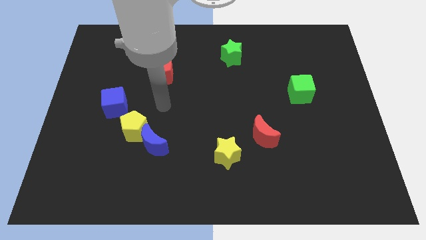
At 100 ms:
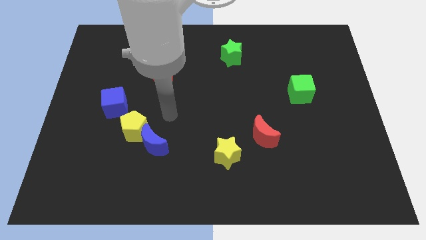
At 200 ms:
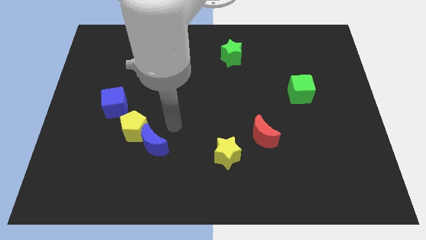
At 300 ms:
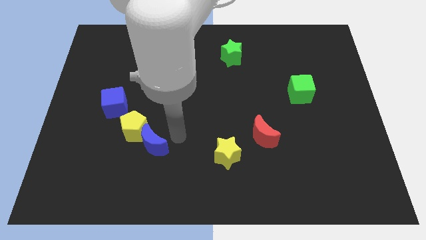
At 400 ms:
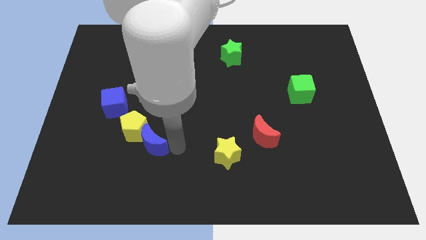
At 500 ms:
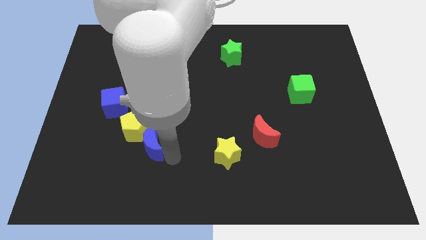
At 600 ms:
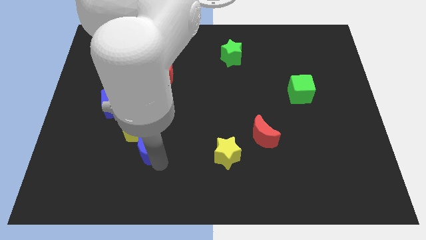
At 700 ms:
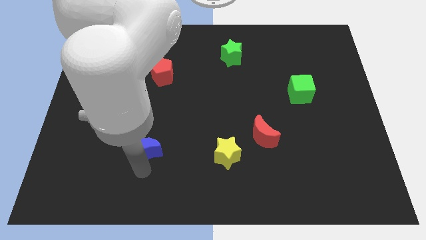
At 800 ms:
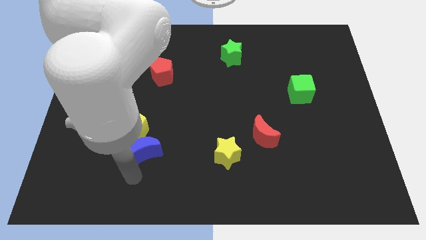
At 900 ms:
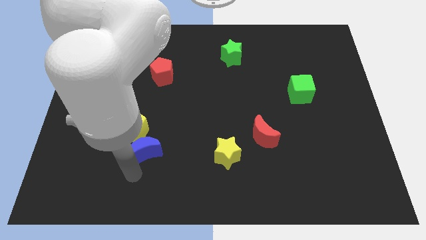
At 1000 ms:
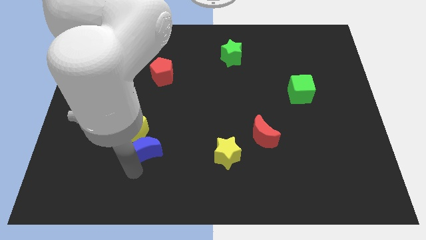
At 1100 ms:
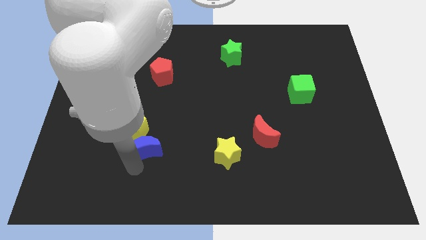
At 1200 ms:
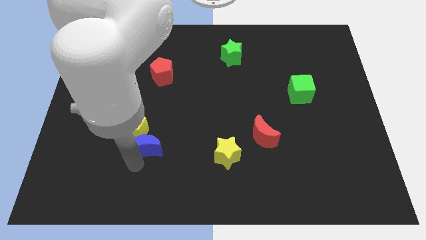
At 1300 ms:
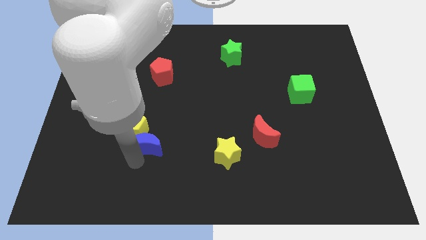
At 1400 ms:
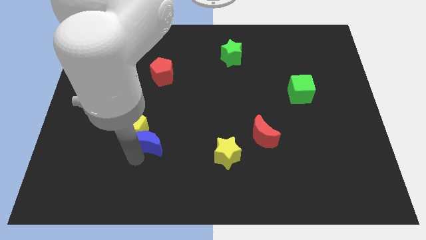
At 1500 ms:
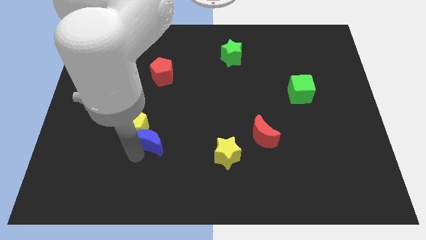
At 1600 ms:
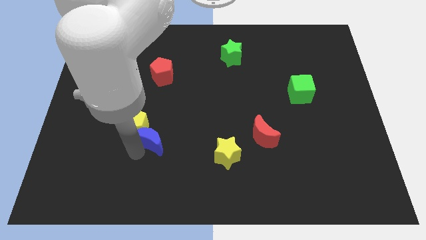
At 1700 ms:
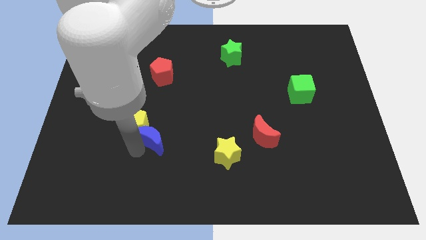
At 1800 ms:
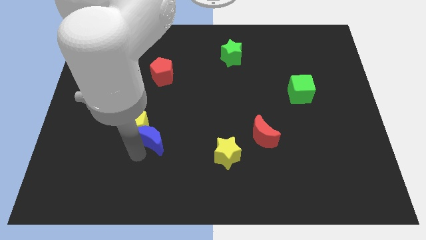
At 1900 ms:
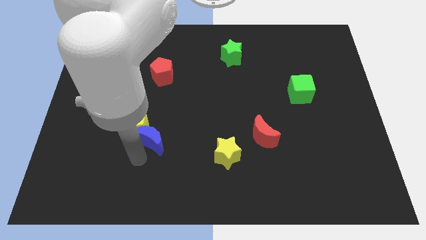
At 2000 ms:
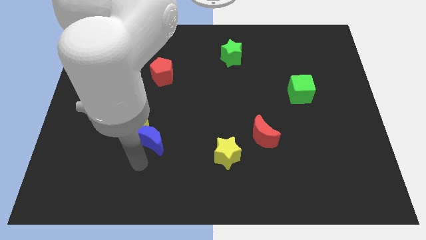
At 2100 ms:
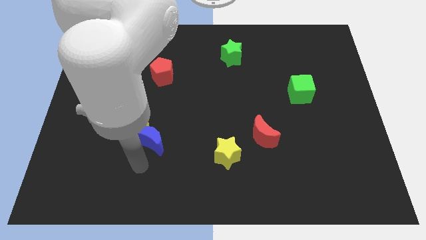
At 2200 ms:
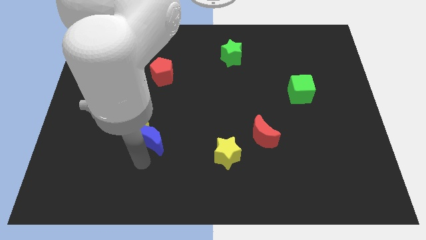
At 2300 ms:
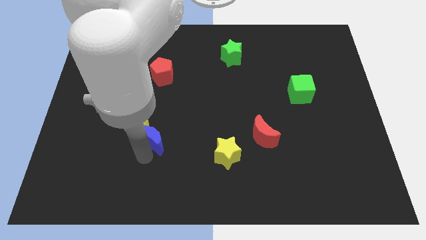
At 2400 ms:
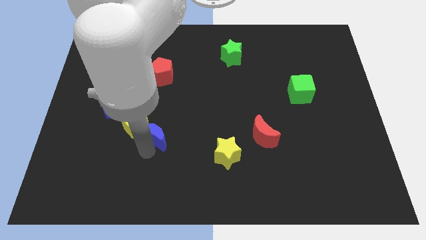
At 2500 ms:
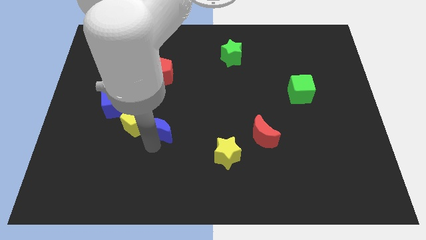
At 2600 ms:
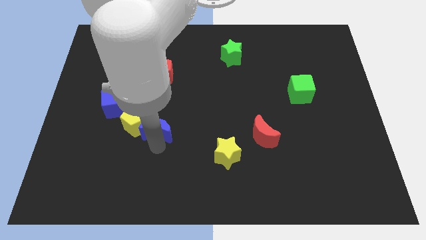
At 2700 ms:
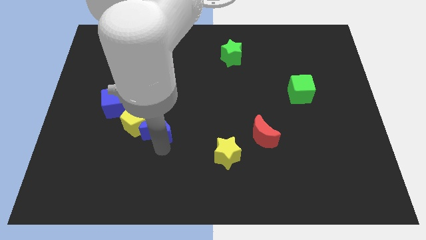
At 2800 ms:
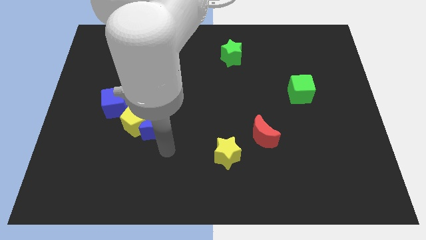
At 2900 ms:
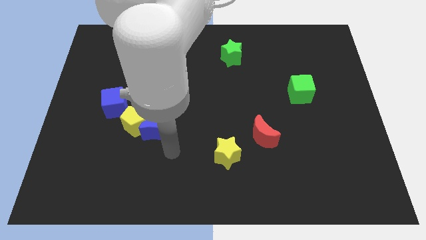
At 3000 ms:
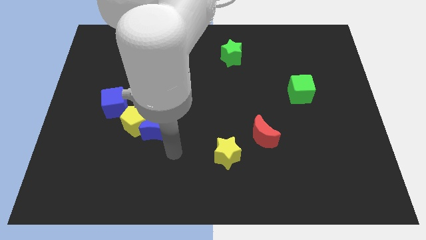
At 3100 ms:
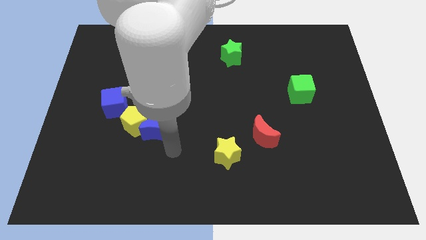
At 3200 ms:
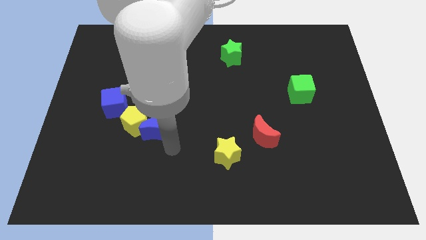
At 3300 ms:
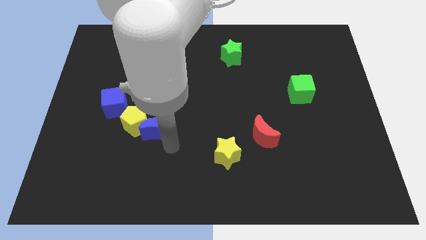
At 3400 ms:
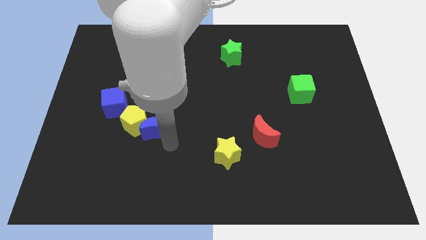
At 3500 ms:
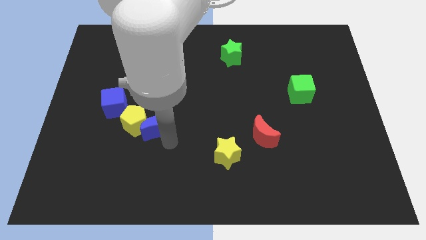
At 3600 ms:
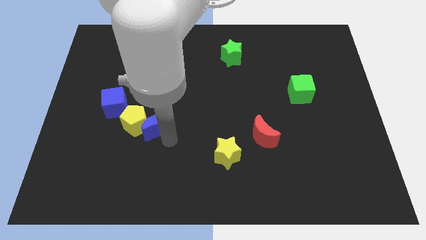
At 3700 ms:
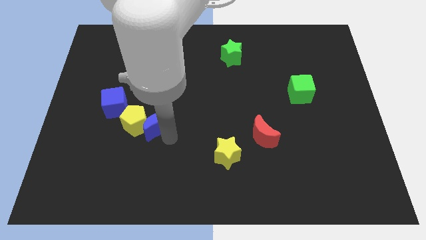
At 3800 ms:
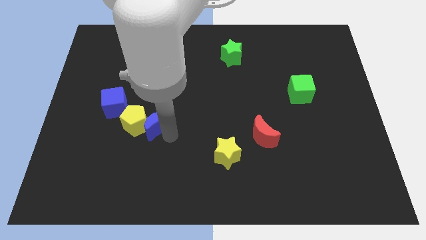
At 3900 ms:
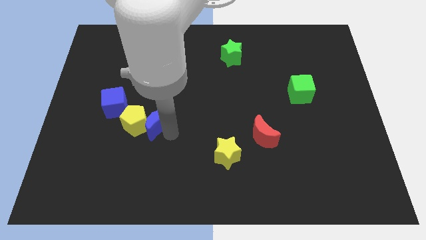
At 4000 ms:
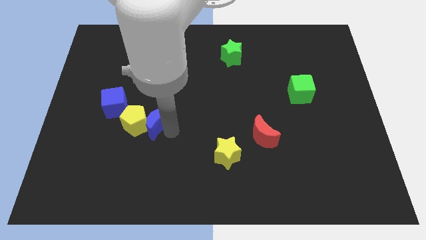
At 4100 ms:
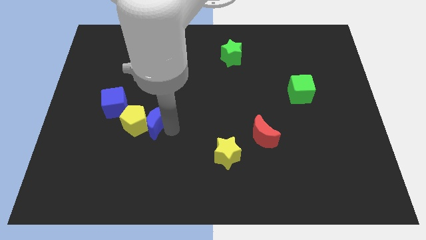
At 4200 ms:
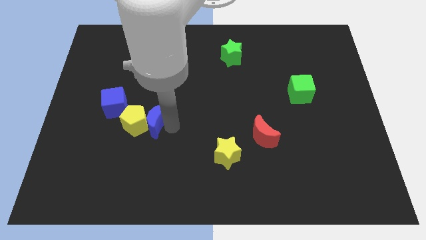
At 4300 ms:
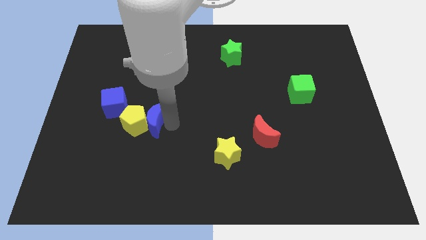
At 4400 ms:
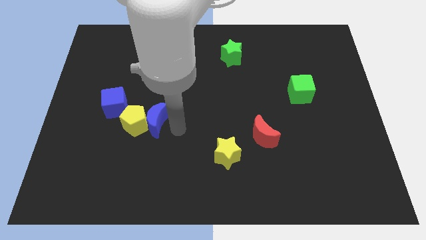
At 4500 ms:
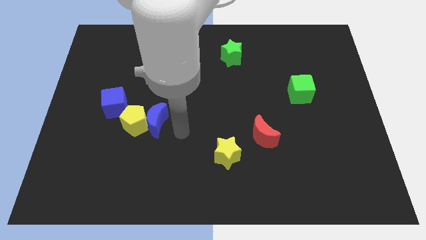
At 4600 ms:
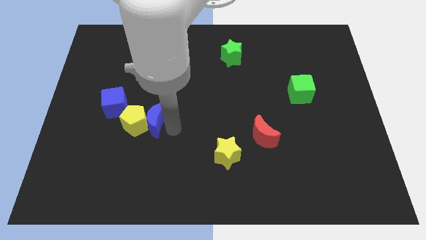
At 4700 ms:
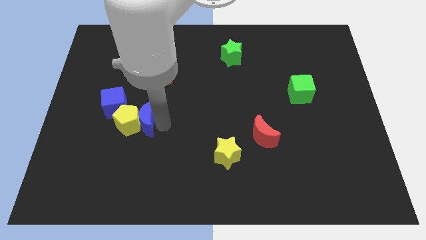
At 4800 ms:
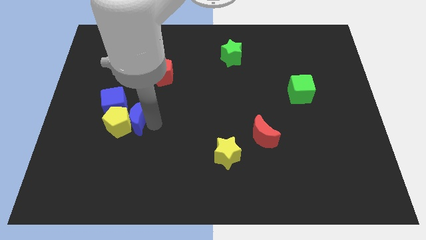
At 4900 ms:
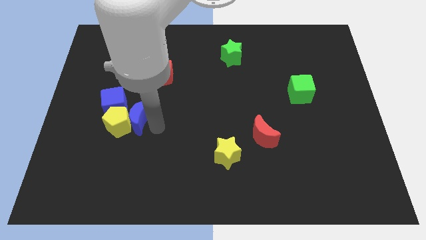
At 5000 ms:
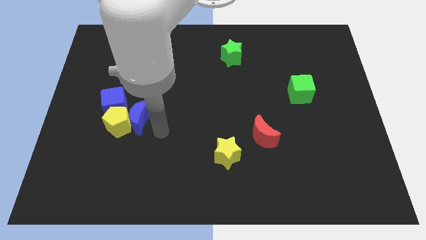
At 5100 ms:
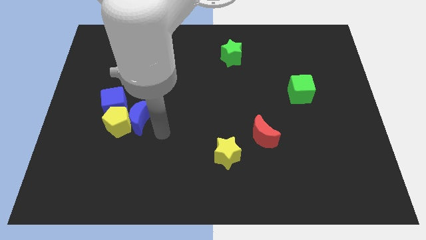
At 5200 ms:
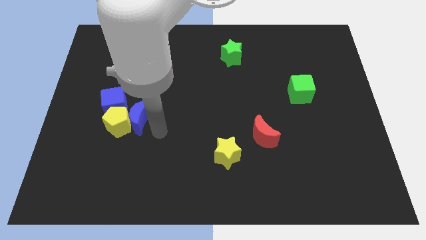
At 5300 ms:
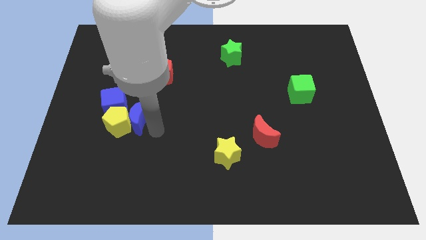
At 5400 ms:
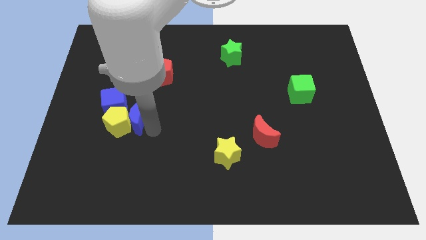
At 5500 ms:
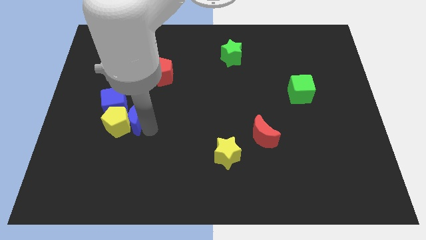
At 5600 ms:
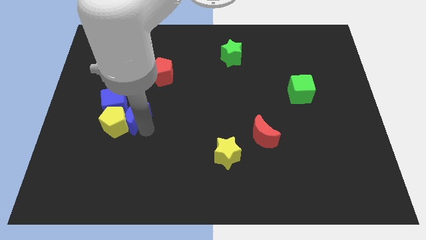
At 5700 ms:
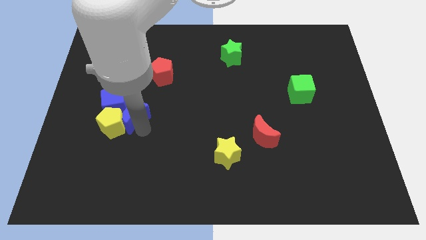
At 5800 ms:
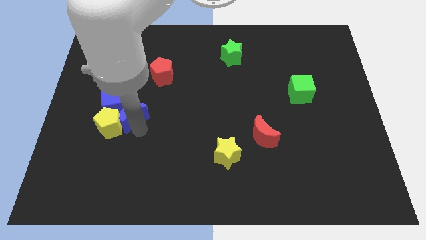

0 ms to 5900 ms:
put the blue moon next to the blue cube
